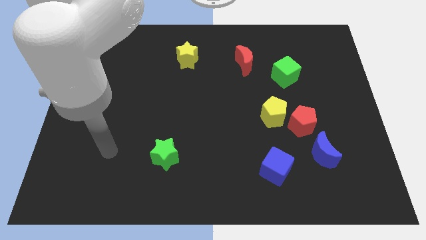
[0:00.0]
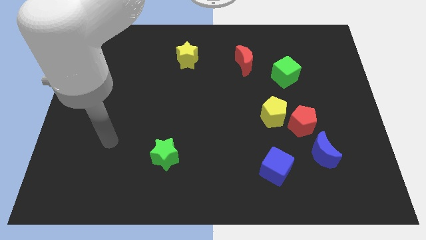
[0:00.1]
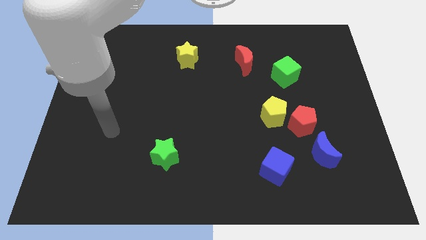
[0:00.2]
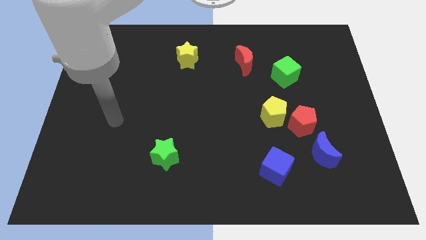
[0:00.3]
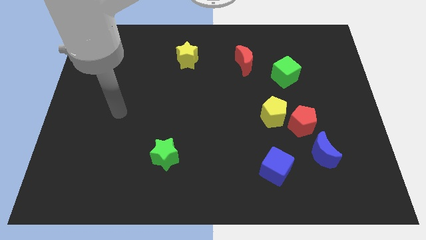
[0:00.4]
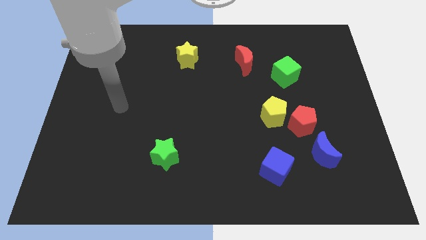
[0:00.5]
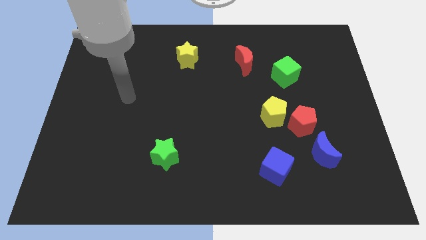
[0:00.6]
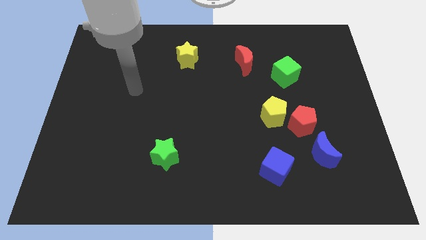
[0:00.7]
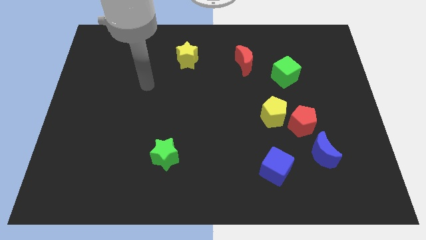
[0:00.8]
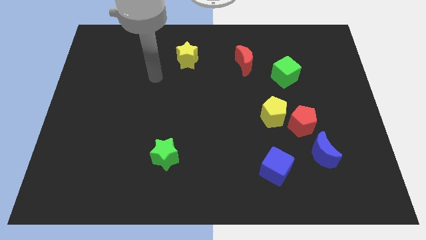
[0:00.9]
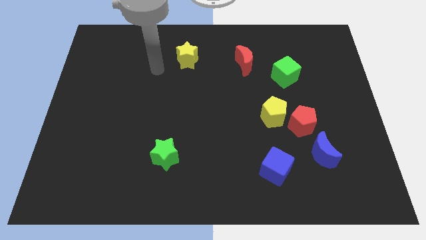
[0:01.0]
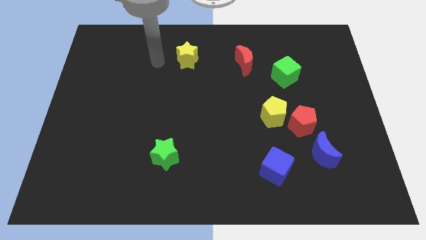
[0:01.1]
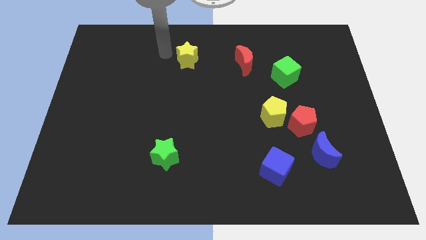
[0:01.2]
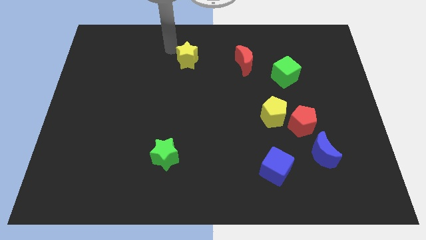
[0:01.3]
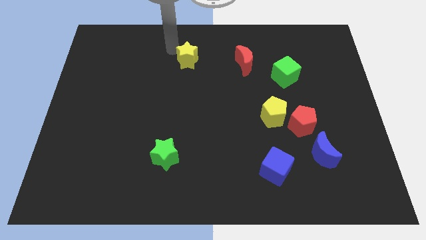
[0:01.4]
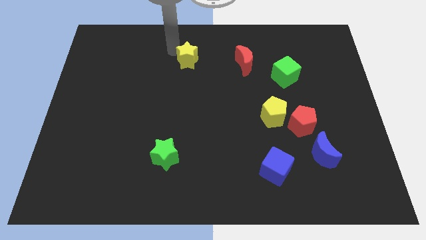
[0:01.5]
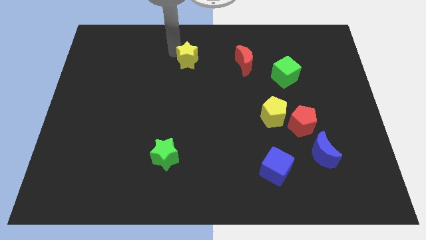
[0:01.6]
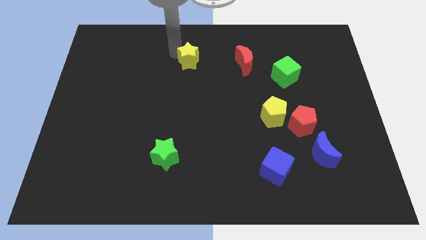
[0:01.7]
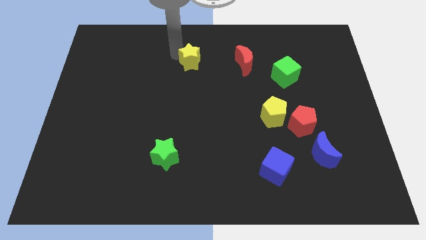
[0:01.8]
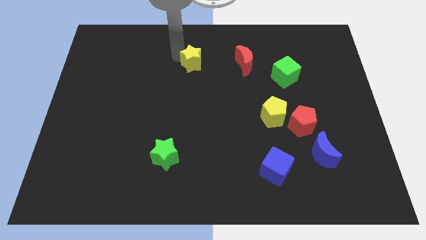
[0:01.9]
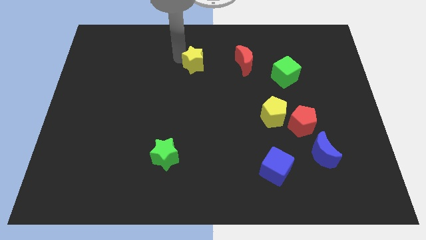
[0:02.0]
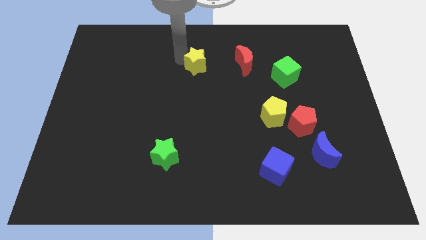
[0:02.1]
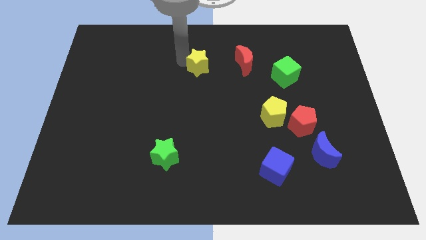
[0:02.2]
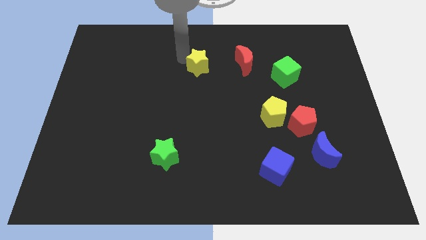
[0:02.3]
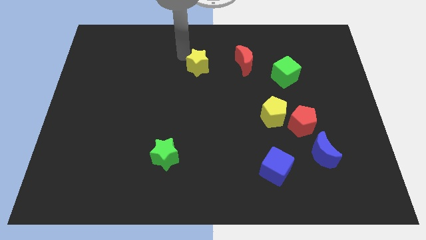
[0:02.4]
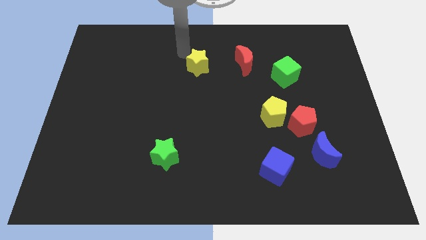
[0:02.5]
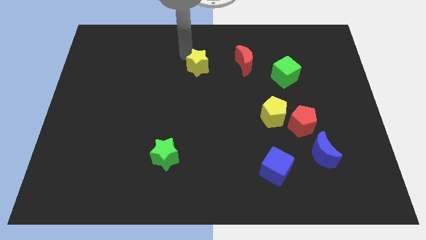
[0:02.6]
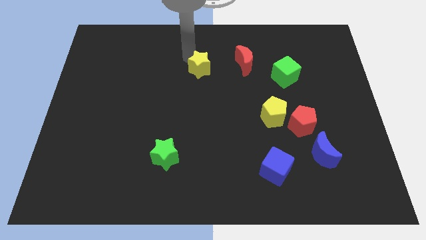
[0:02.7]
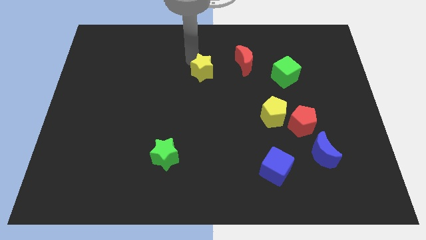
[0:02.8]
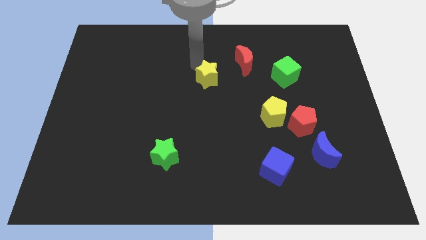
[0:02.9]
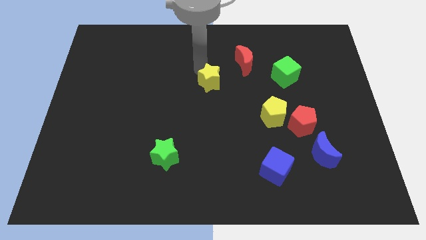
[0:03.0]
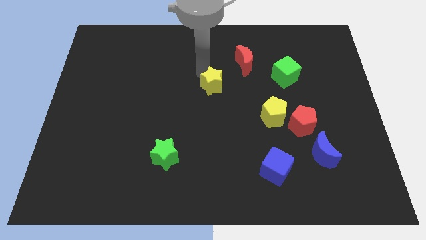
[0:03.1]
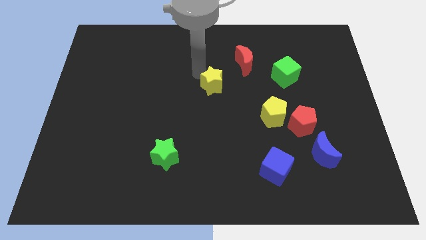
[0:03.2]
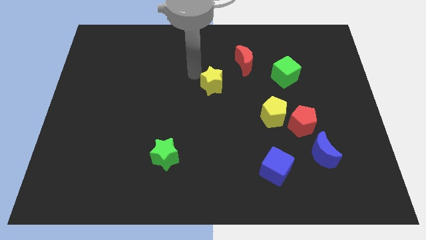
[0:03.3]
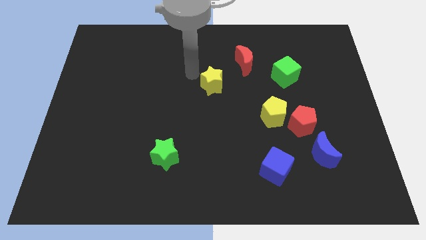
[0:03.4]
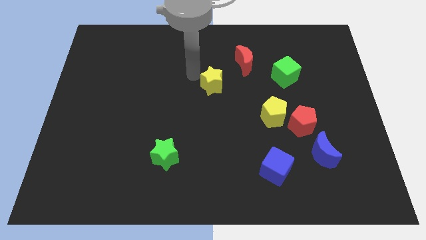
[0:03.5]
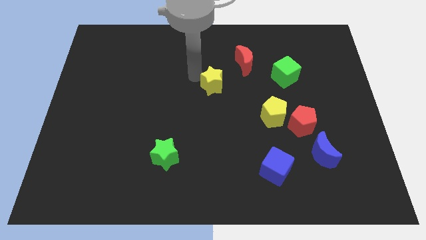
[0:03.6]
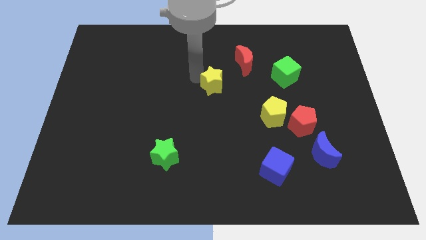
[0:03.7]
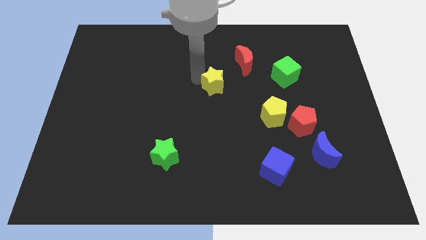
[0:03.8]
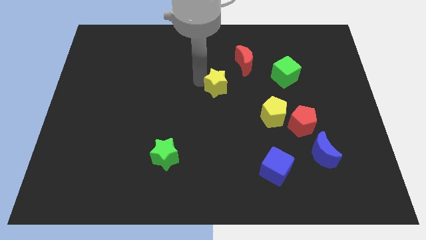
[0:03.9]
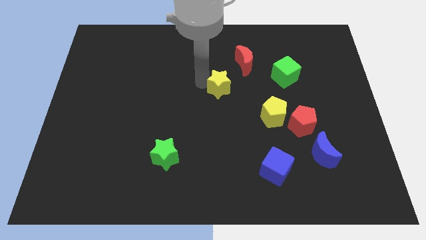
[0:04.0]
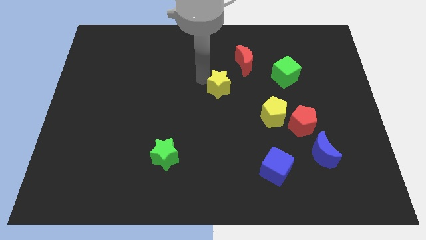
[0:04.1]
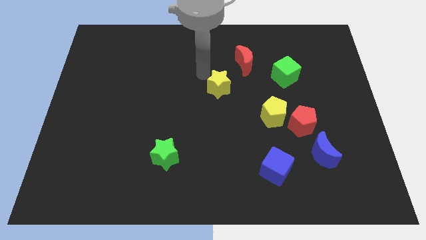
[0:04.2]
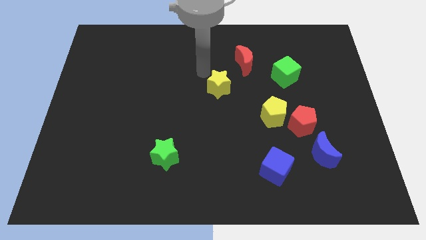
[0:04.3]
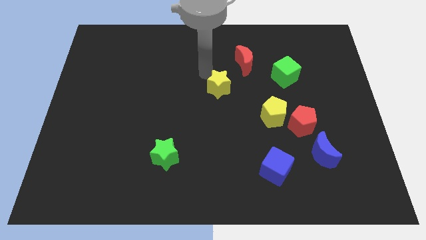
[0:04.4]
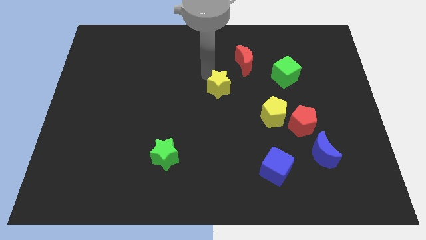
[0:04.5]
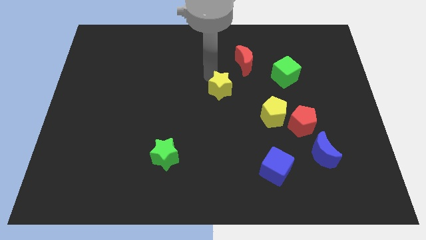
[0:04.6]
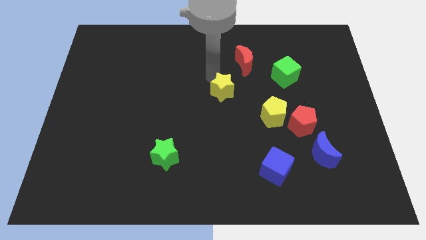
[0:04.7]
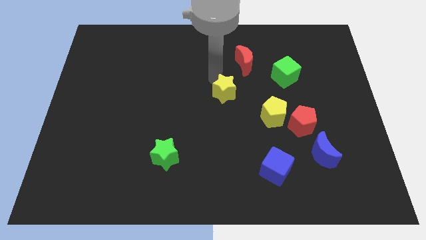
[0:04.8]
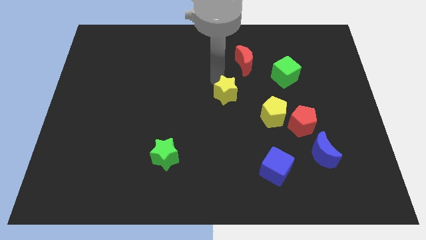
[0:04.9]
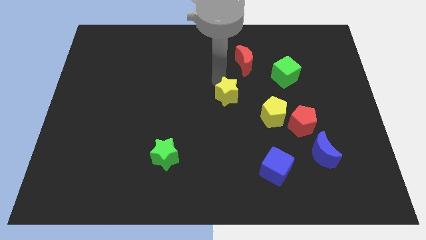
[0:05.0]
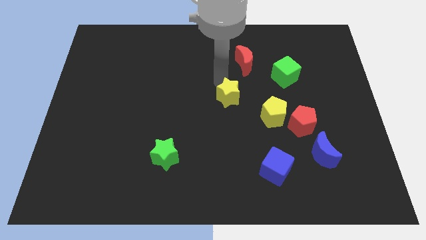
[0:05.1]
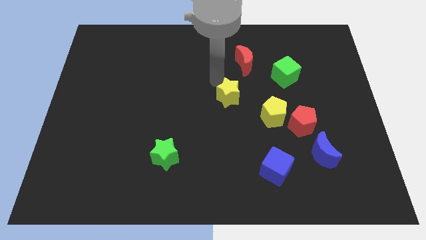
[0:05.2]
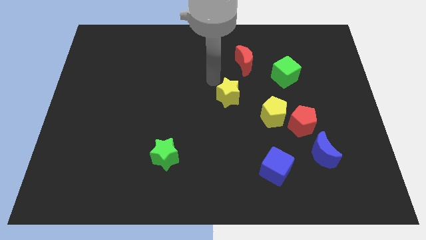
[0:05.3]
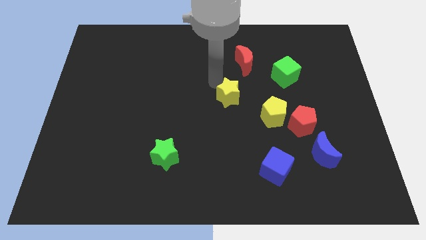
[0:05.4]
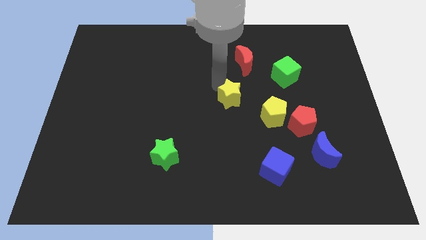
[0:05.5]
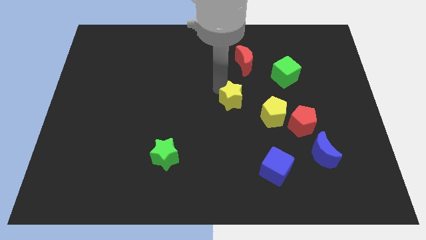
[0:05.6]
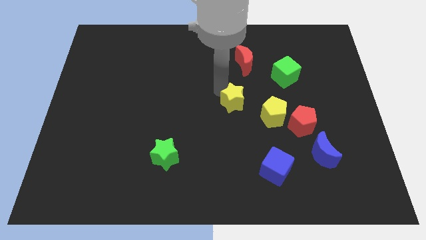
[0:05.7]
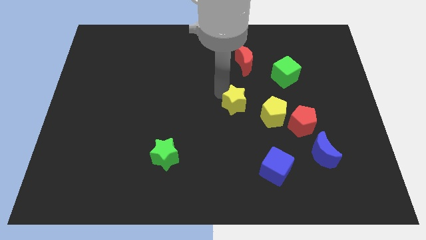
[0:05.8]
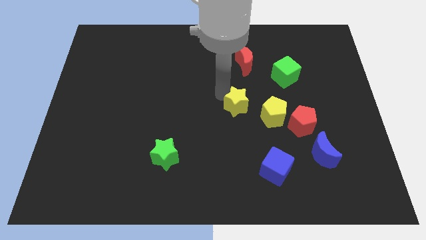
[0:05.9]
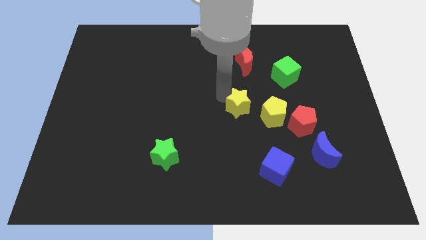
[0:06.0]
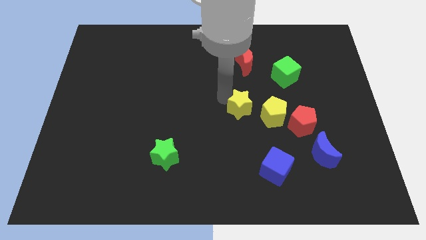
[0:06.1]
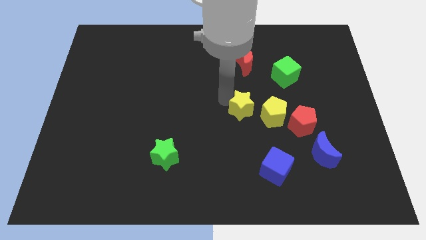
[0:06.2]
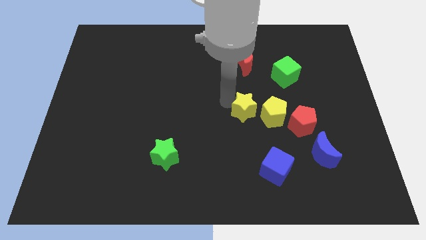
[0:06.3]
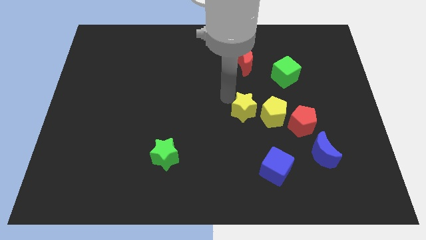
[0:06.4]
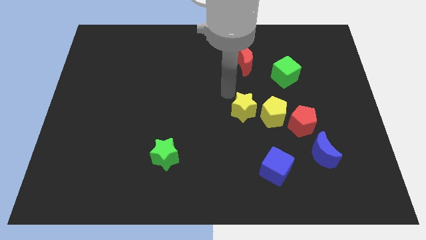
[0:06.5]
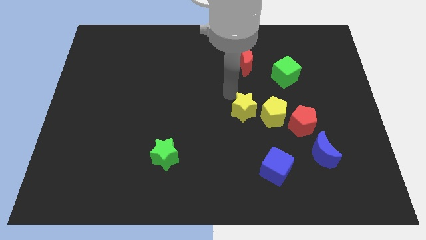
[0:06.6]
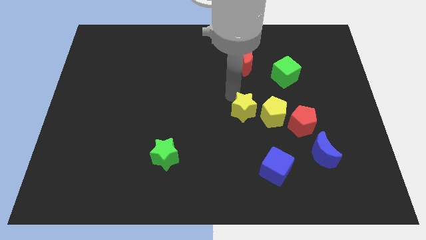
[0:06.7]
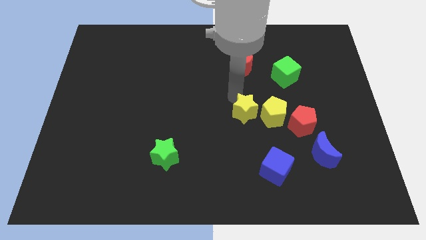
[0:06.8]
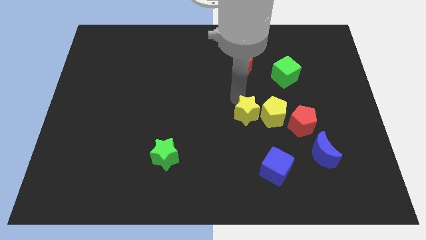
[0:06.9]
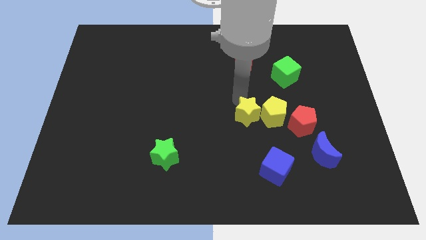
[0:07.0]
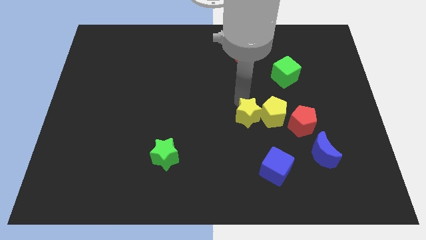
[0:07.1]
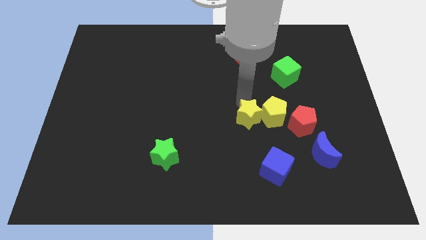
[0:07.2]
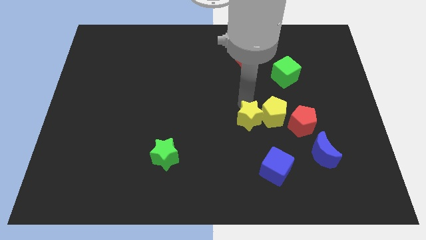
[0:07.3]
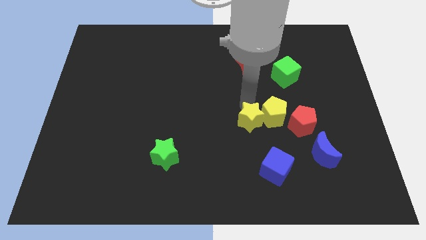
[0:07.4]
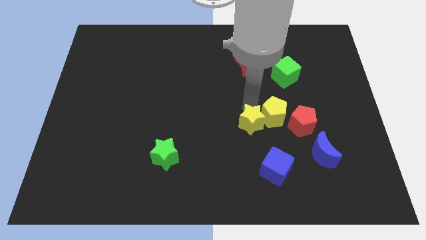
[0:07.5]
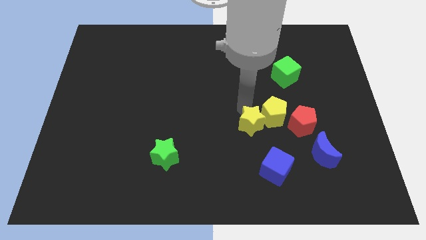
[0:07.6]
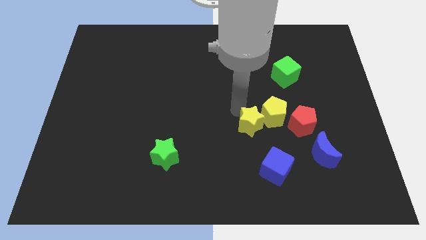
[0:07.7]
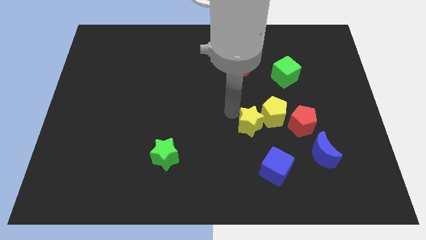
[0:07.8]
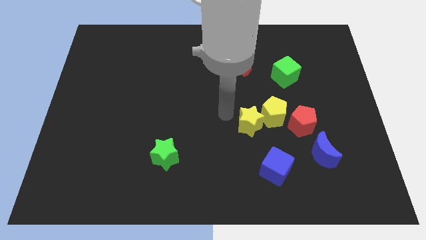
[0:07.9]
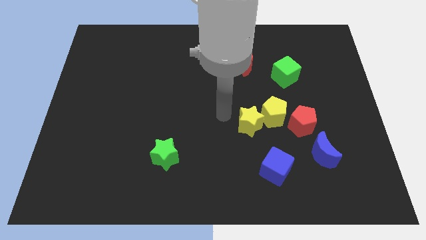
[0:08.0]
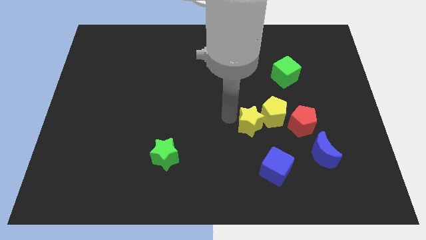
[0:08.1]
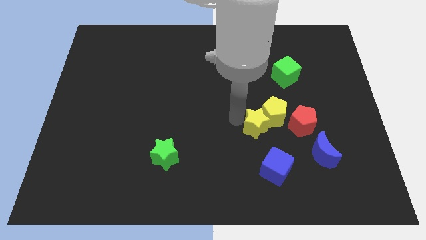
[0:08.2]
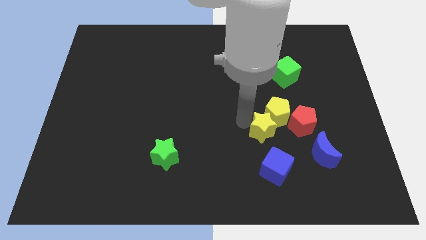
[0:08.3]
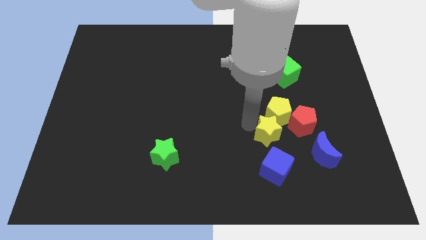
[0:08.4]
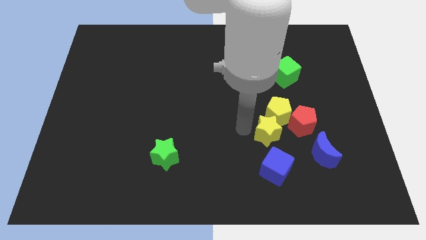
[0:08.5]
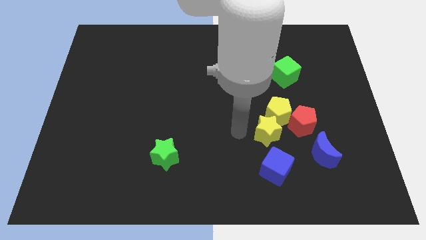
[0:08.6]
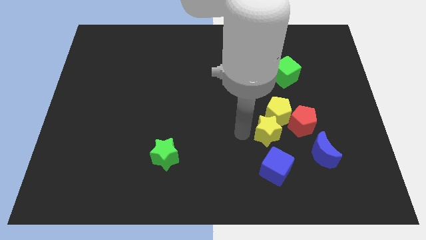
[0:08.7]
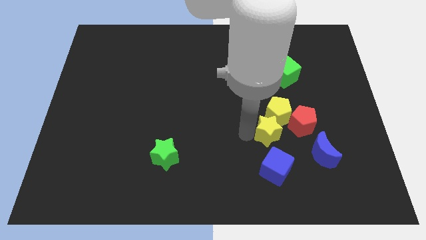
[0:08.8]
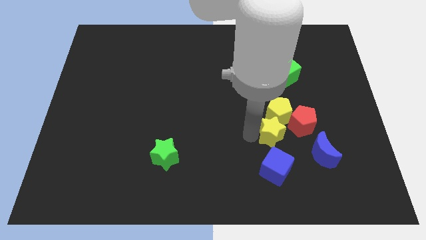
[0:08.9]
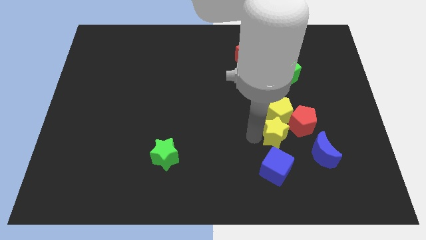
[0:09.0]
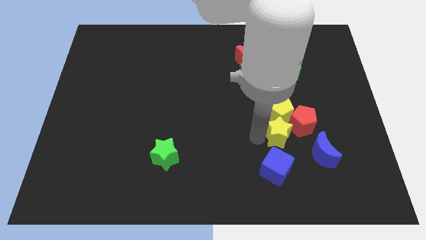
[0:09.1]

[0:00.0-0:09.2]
push the yellow star diagonally down and to the right of the yellow pentagon
